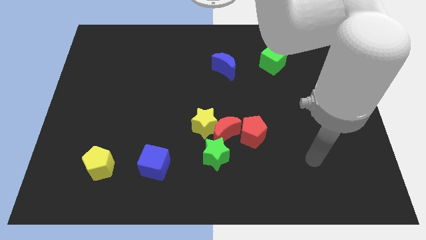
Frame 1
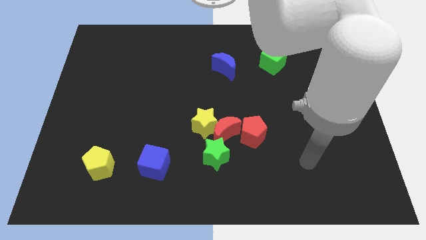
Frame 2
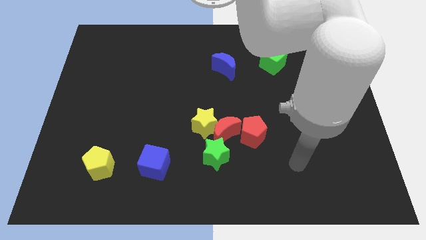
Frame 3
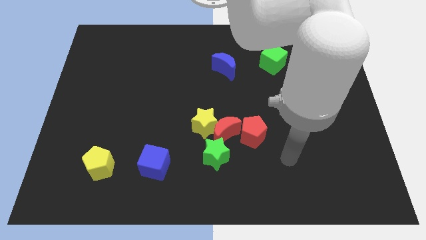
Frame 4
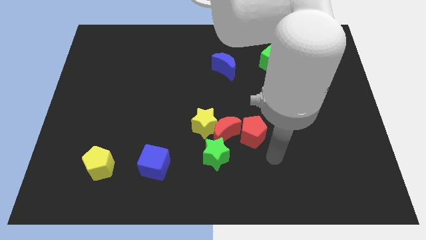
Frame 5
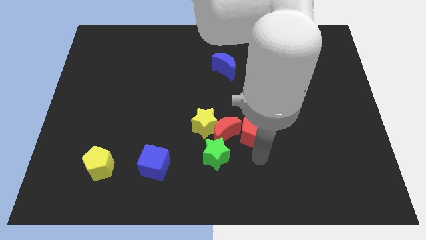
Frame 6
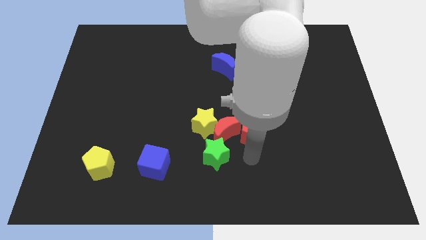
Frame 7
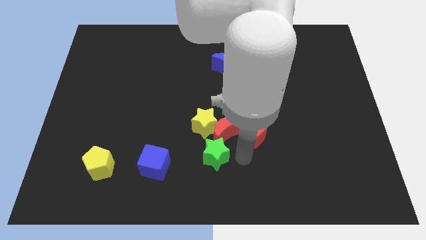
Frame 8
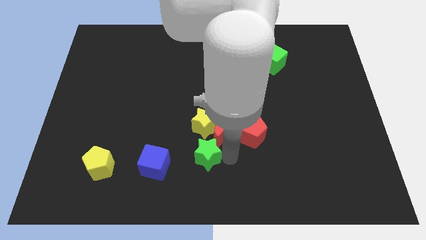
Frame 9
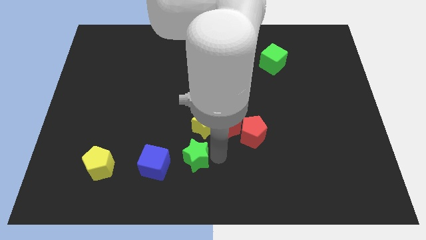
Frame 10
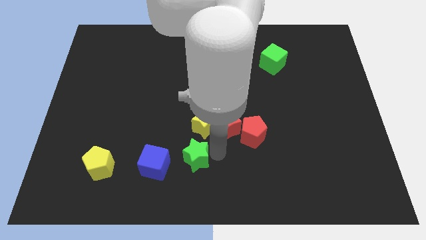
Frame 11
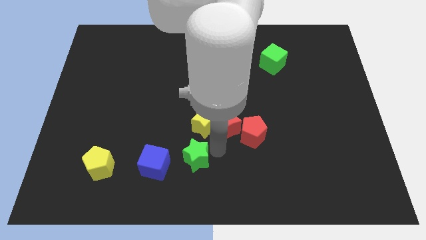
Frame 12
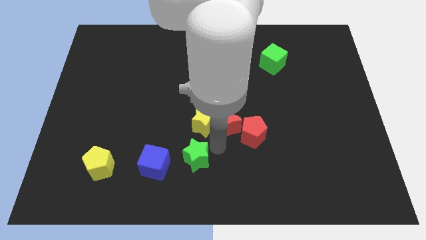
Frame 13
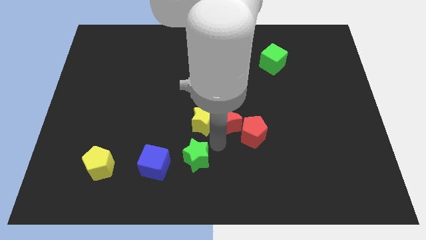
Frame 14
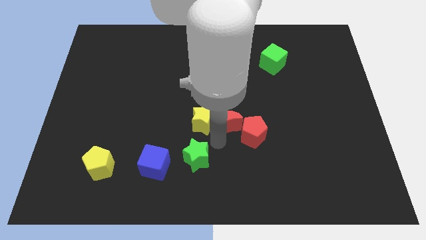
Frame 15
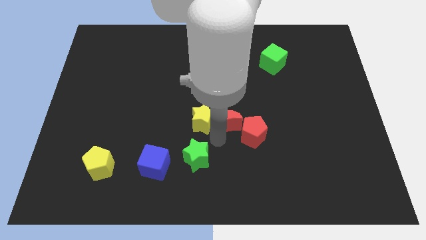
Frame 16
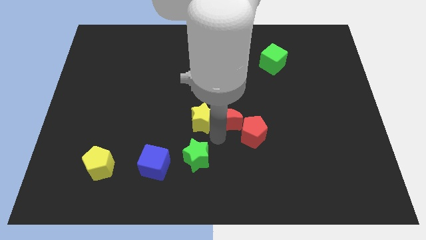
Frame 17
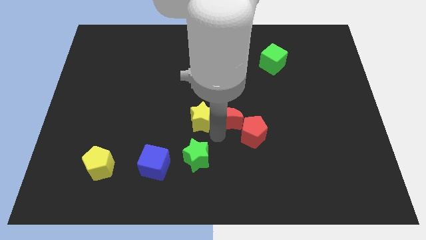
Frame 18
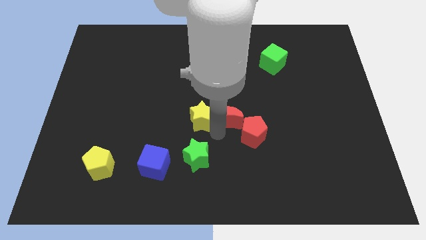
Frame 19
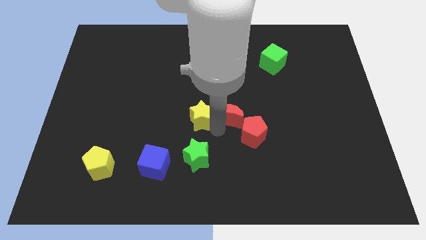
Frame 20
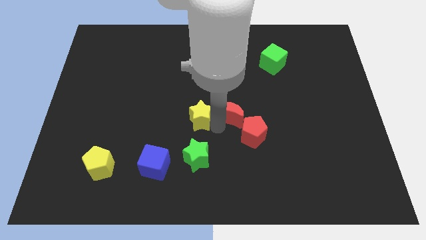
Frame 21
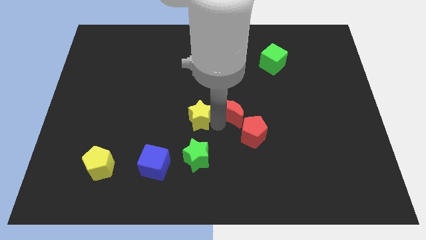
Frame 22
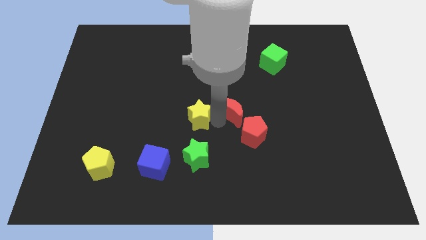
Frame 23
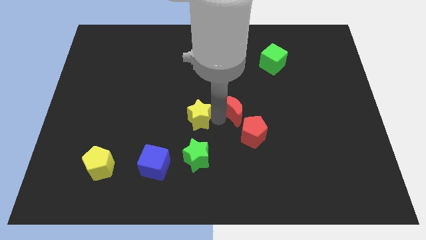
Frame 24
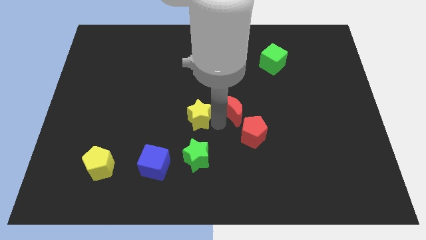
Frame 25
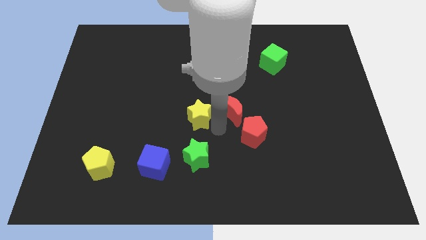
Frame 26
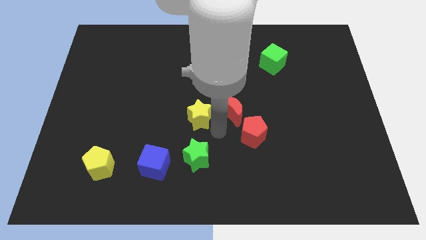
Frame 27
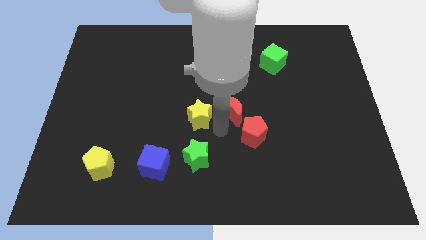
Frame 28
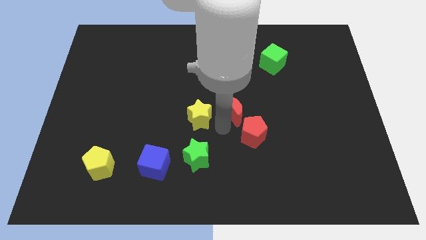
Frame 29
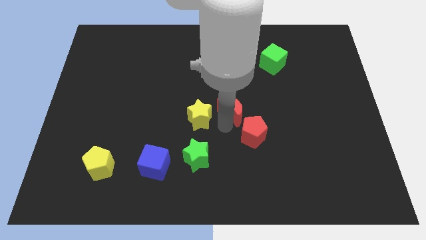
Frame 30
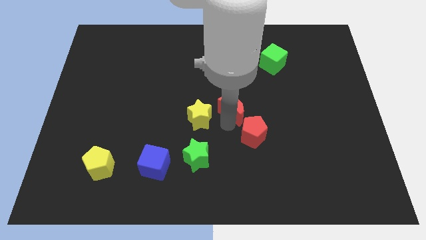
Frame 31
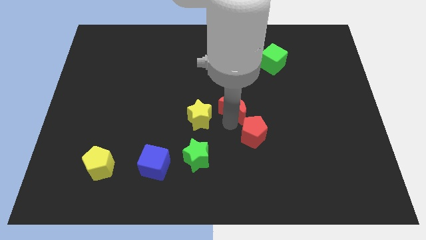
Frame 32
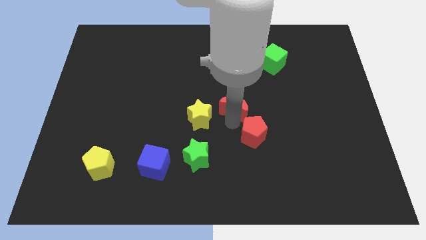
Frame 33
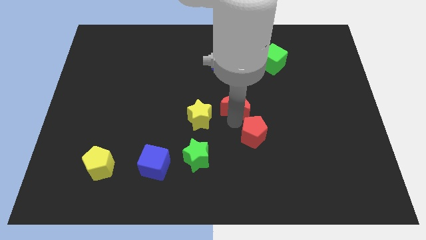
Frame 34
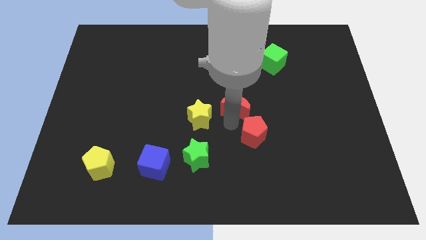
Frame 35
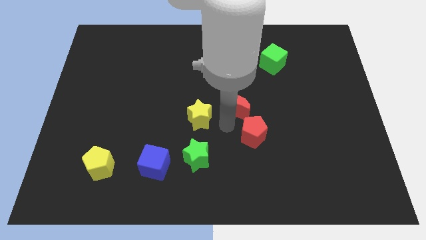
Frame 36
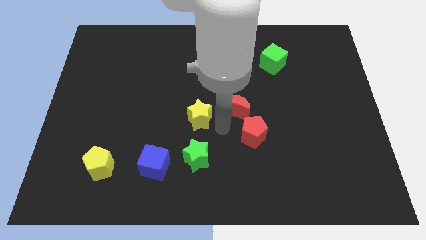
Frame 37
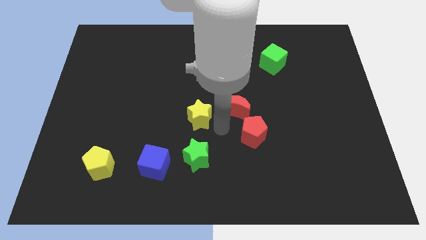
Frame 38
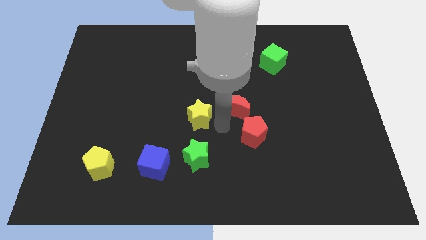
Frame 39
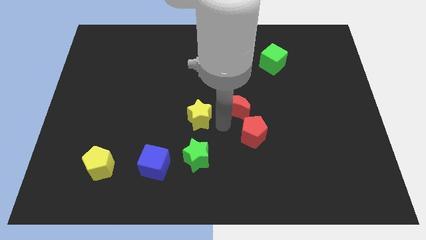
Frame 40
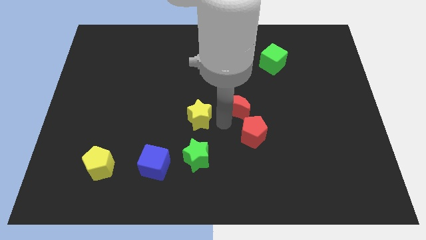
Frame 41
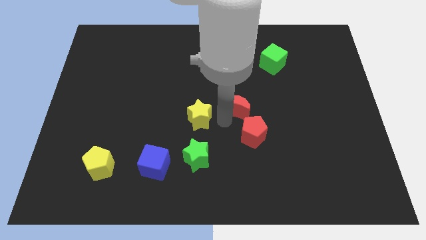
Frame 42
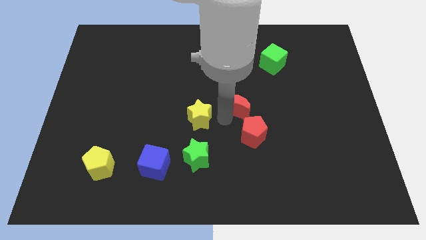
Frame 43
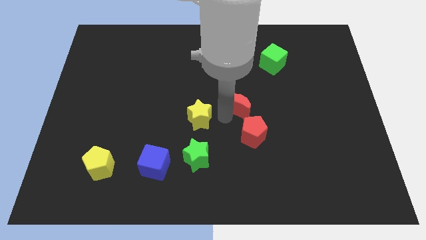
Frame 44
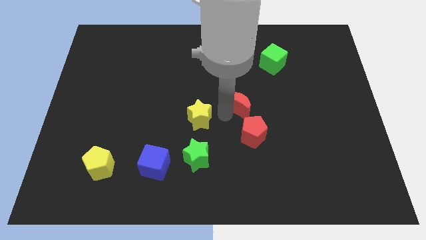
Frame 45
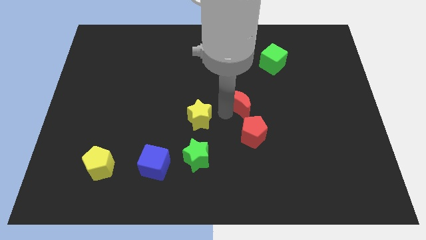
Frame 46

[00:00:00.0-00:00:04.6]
move the red moon away from the yellow star, red pentagon, and green star

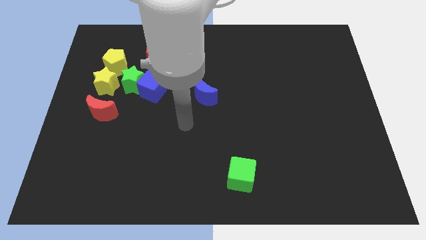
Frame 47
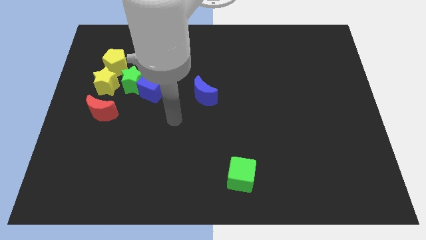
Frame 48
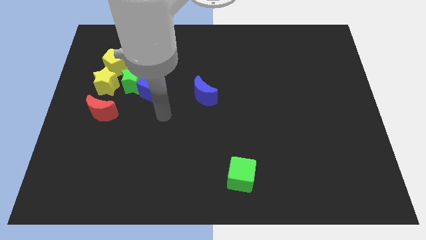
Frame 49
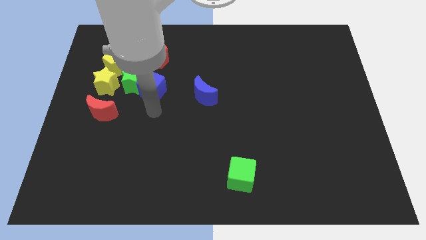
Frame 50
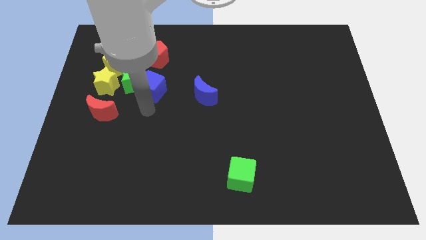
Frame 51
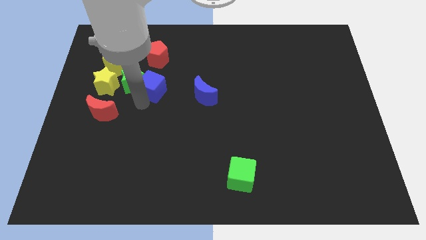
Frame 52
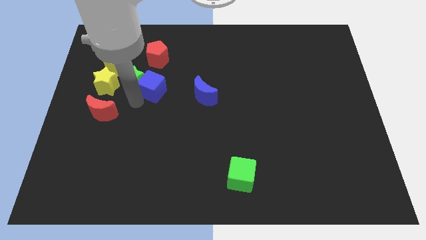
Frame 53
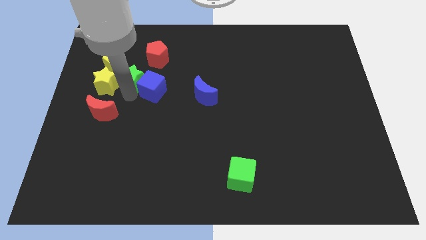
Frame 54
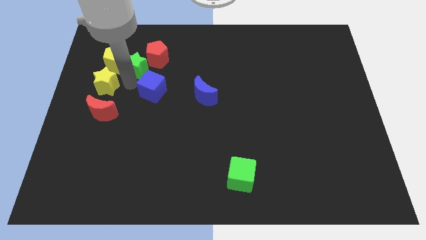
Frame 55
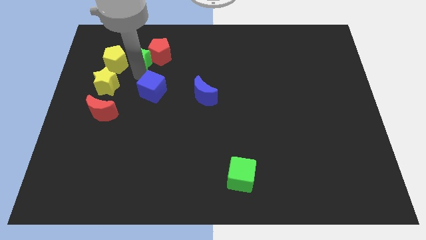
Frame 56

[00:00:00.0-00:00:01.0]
pull the blue cube apart from the green star

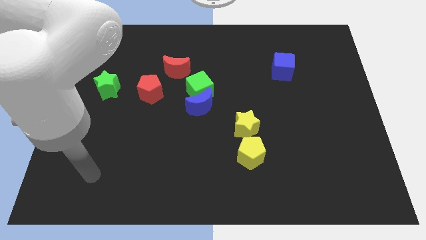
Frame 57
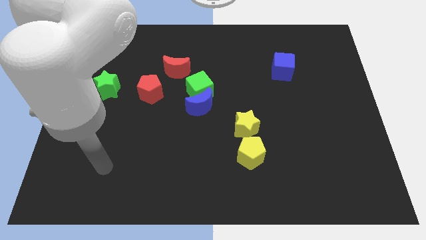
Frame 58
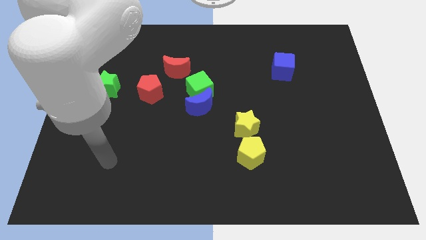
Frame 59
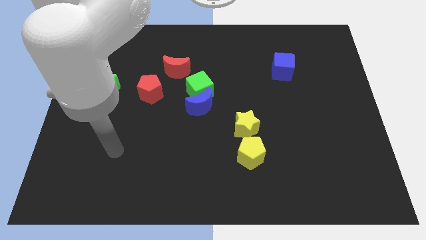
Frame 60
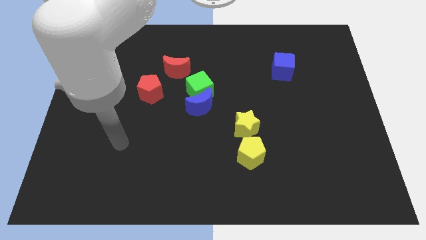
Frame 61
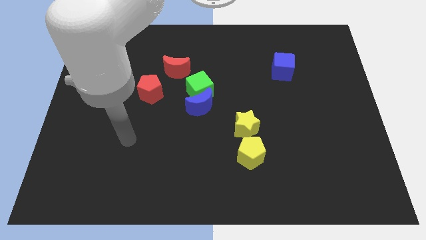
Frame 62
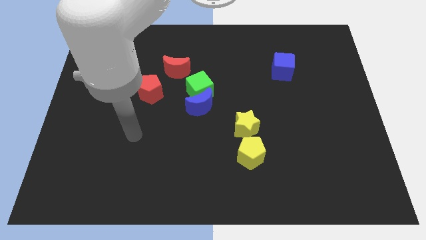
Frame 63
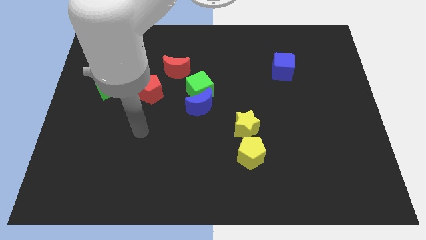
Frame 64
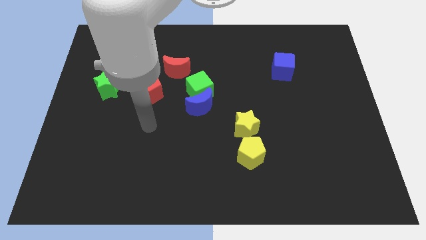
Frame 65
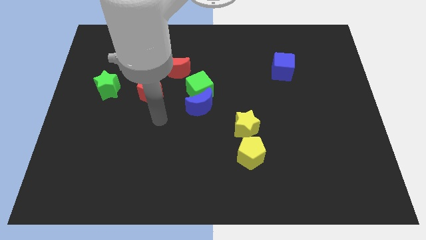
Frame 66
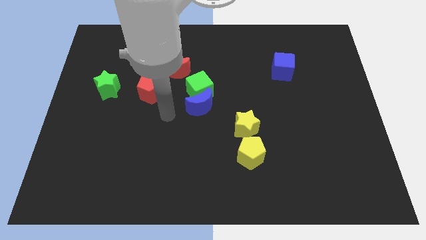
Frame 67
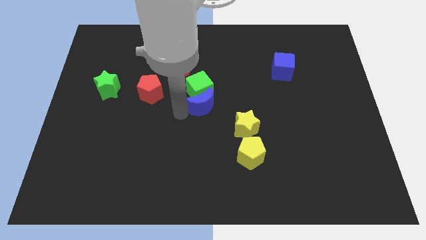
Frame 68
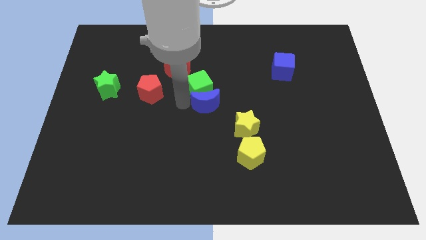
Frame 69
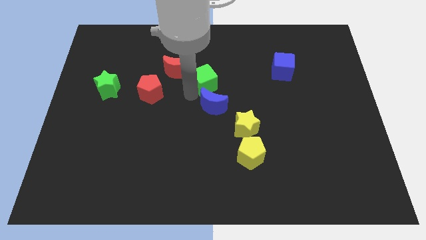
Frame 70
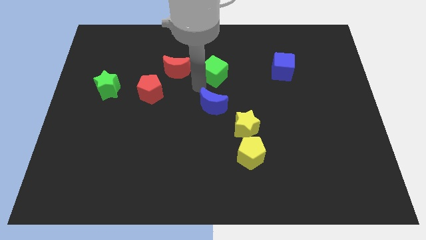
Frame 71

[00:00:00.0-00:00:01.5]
move the blue moon away from the green cube

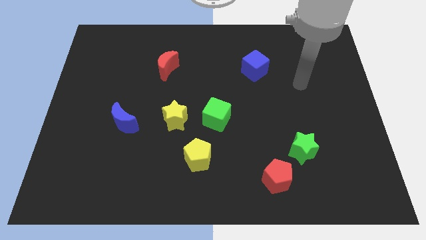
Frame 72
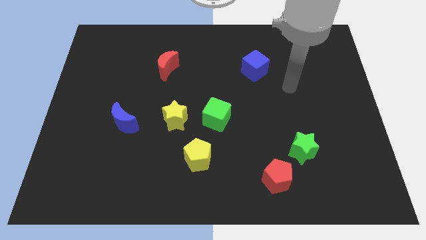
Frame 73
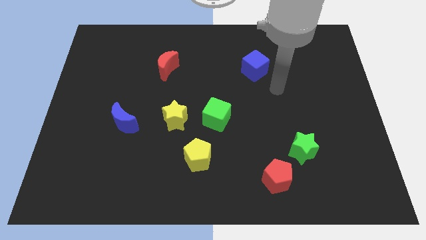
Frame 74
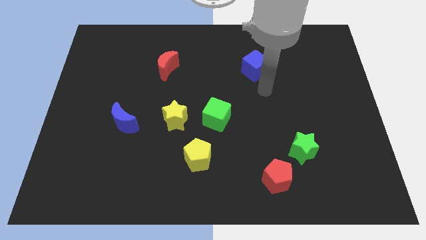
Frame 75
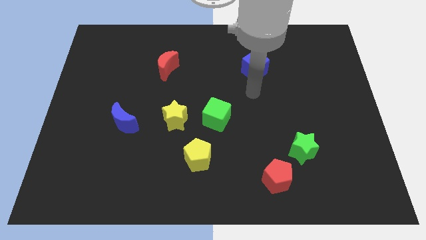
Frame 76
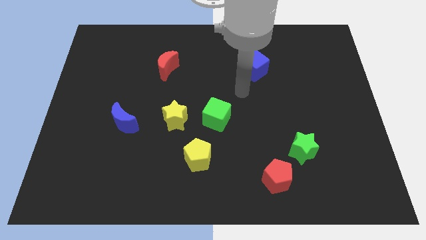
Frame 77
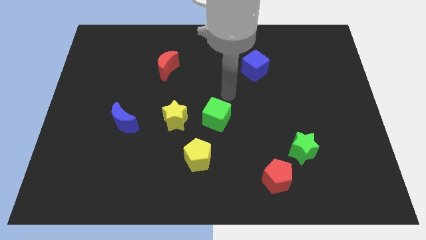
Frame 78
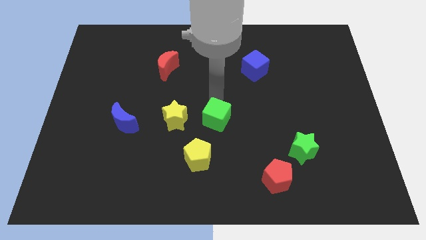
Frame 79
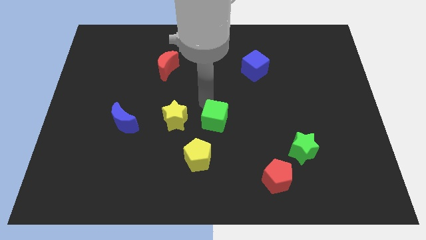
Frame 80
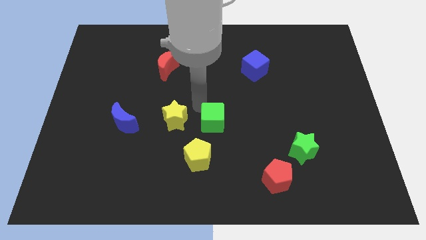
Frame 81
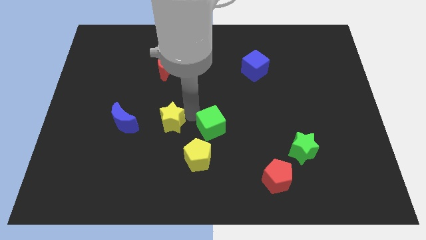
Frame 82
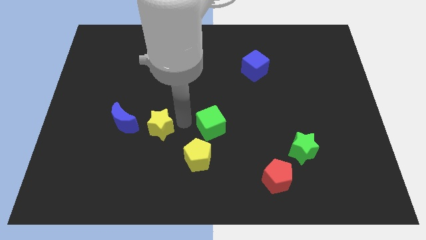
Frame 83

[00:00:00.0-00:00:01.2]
separate the green cube from the yellow star

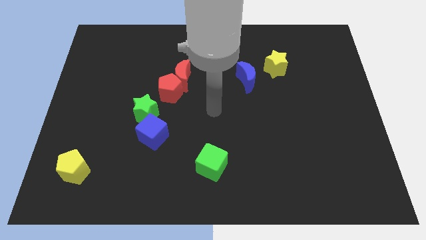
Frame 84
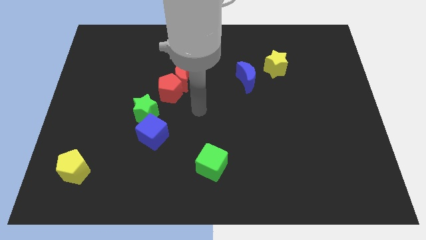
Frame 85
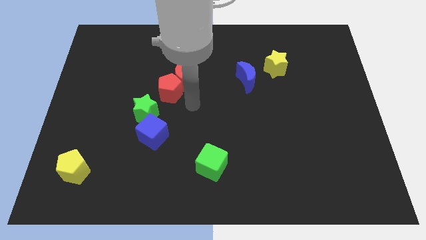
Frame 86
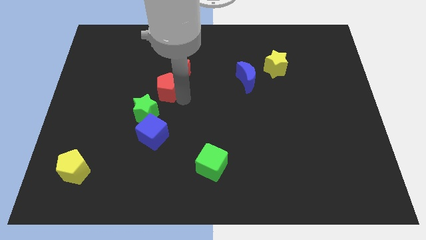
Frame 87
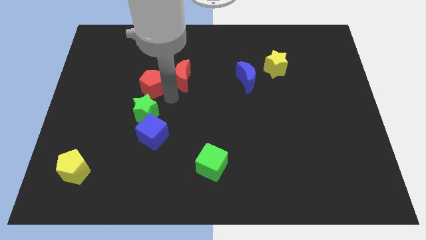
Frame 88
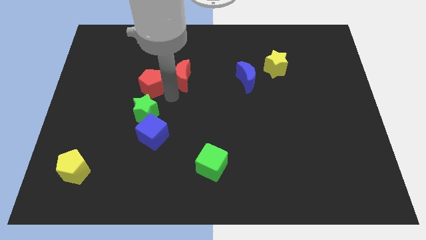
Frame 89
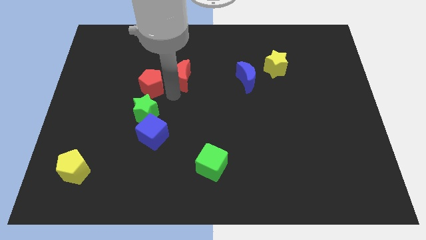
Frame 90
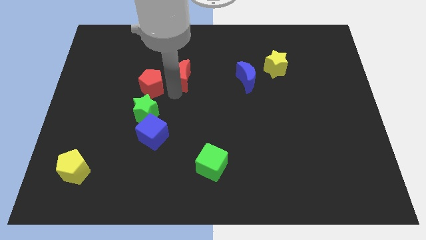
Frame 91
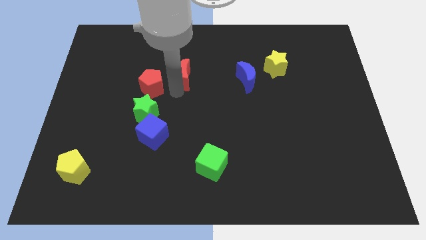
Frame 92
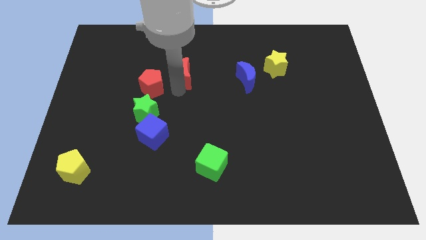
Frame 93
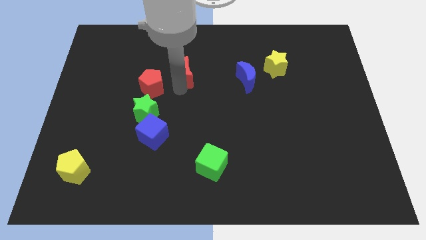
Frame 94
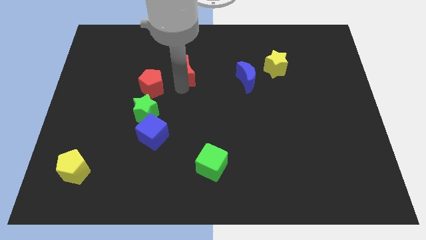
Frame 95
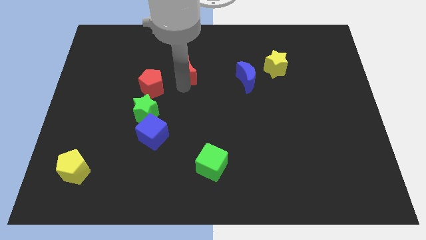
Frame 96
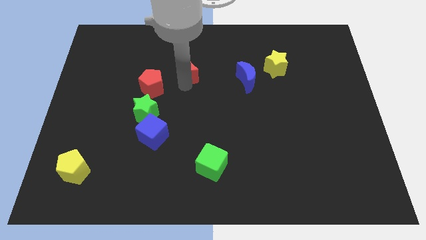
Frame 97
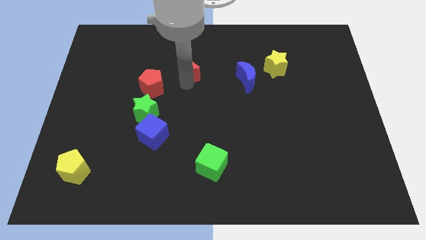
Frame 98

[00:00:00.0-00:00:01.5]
move the red moon away from the red pentagon
